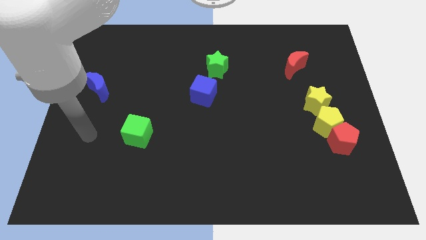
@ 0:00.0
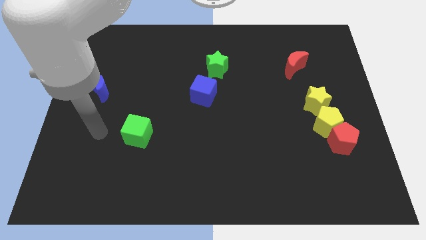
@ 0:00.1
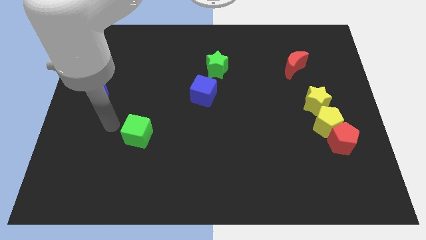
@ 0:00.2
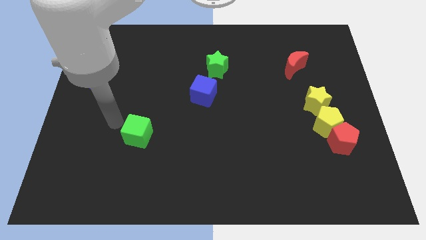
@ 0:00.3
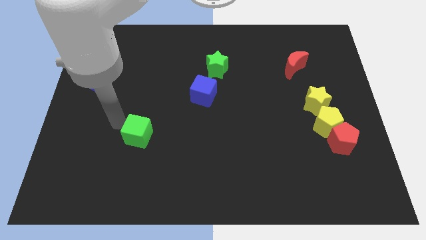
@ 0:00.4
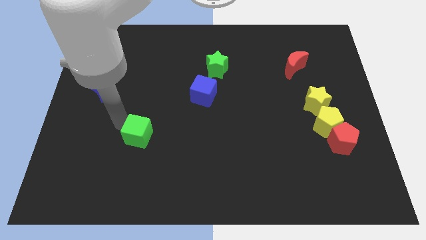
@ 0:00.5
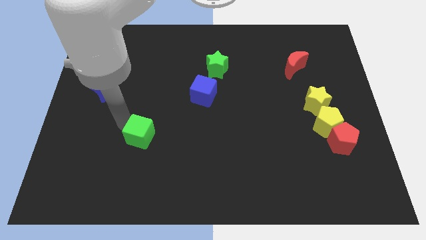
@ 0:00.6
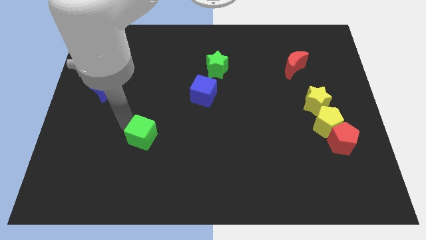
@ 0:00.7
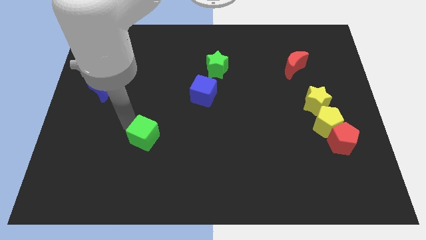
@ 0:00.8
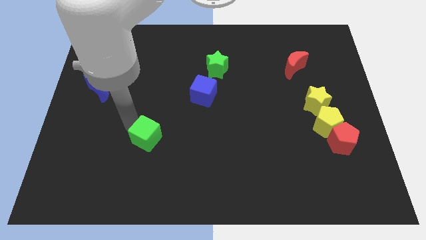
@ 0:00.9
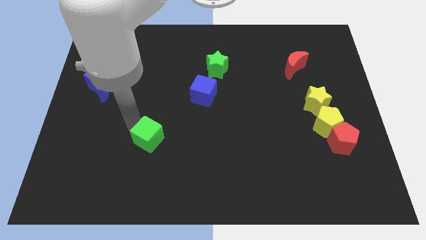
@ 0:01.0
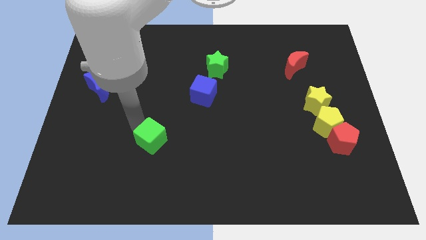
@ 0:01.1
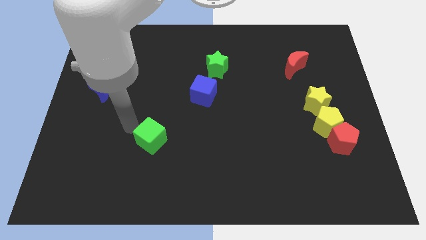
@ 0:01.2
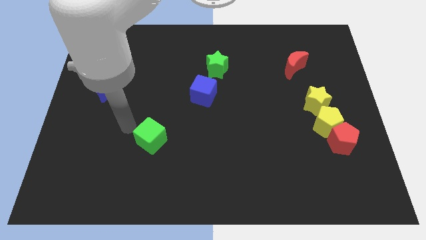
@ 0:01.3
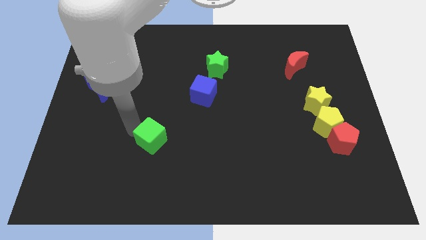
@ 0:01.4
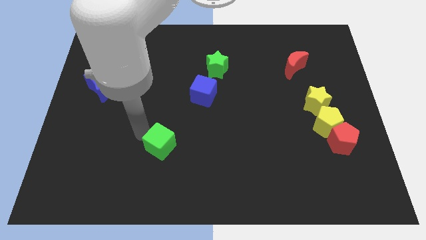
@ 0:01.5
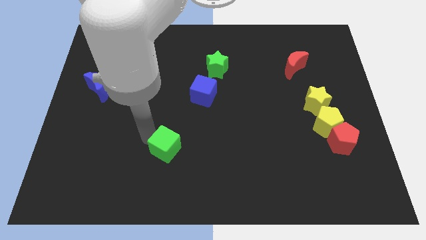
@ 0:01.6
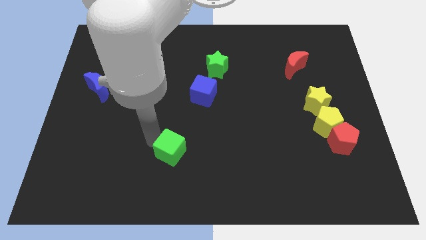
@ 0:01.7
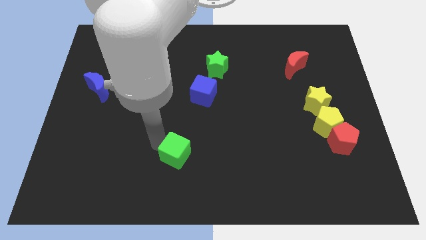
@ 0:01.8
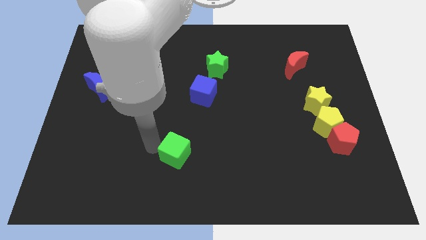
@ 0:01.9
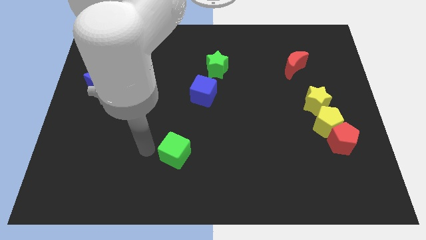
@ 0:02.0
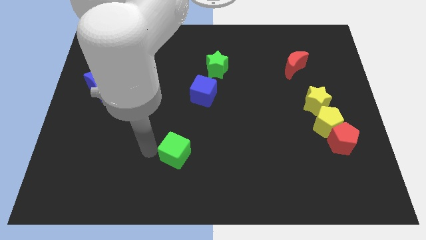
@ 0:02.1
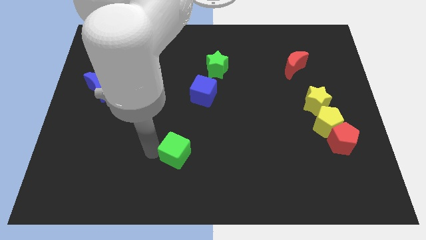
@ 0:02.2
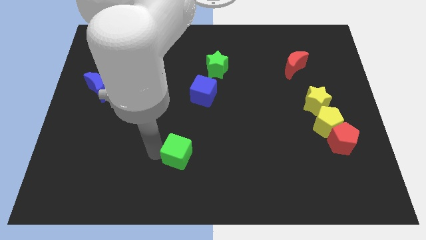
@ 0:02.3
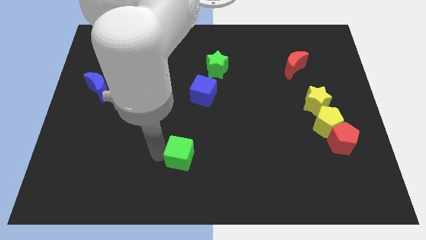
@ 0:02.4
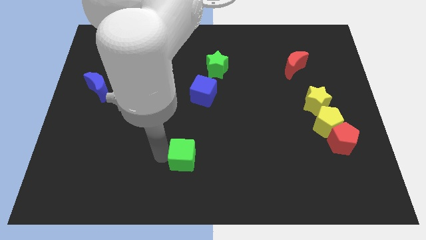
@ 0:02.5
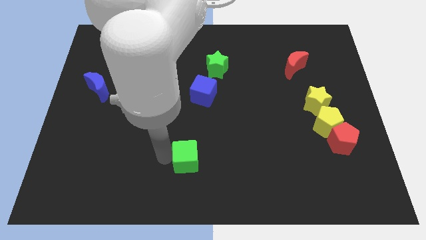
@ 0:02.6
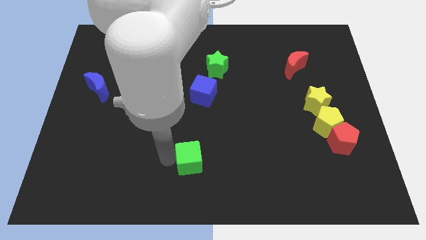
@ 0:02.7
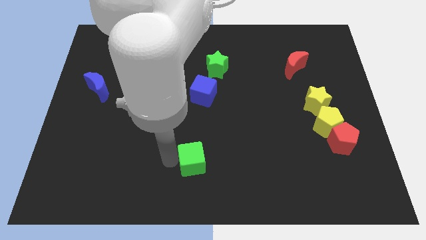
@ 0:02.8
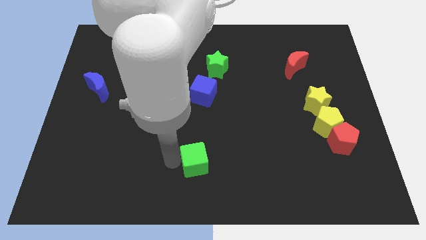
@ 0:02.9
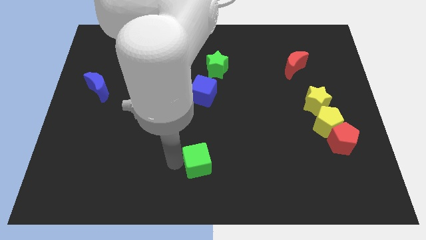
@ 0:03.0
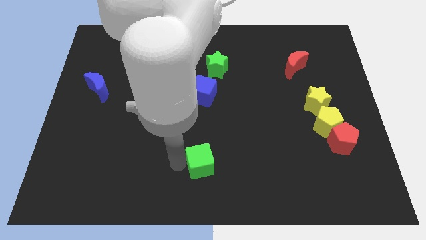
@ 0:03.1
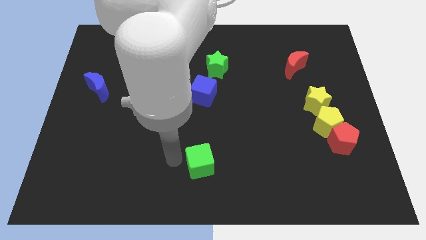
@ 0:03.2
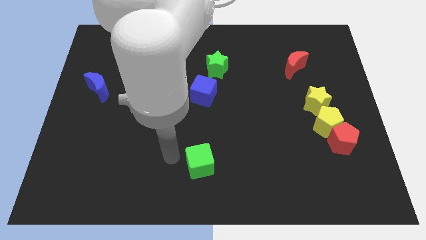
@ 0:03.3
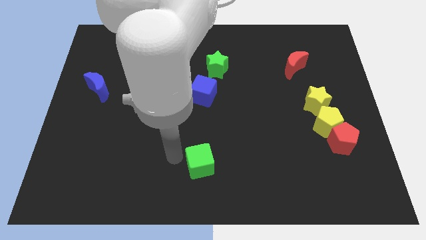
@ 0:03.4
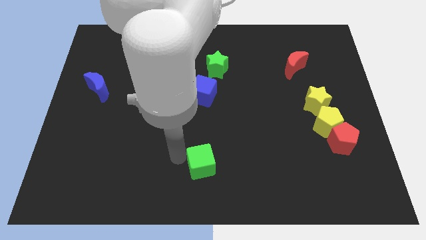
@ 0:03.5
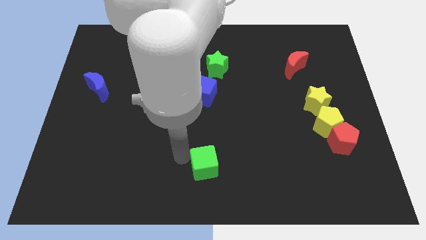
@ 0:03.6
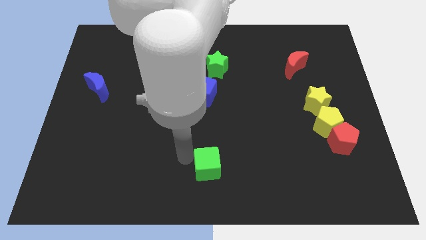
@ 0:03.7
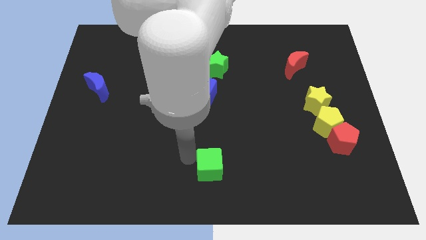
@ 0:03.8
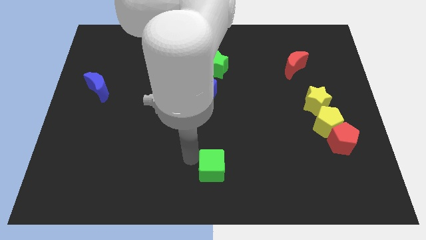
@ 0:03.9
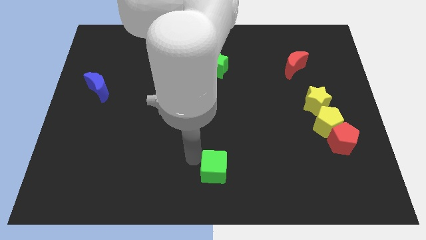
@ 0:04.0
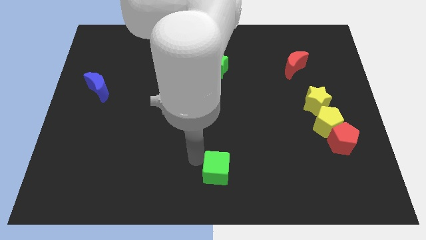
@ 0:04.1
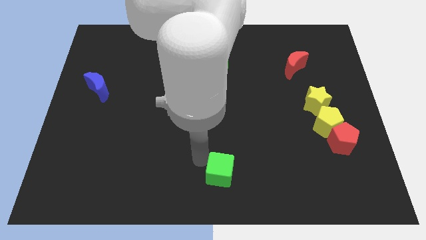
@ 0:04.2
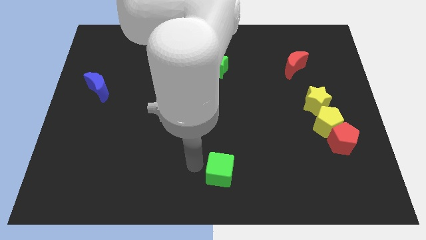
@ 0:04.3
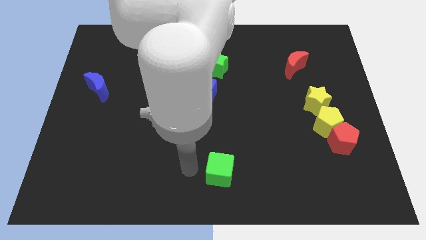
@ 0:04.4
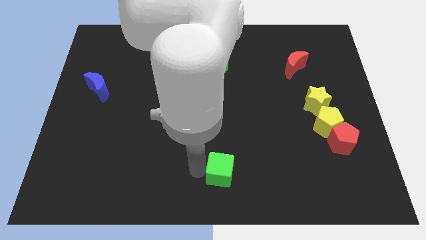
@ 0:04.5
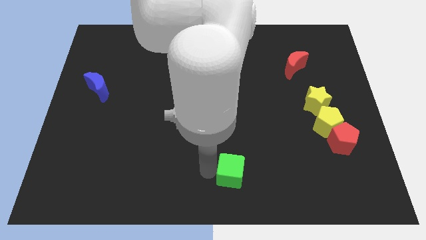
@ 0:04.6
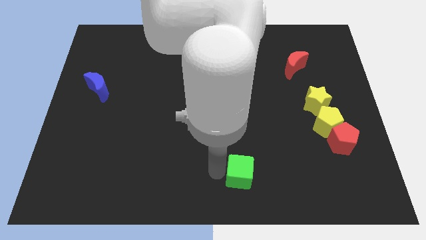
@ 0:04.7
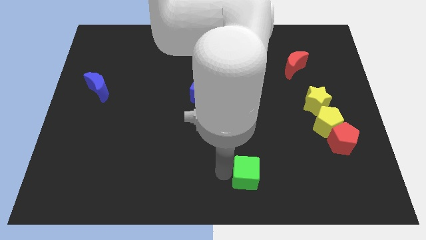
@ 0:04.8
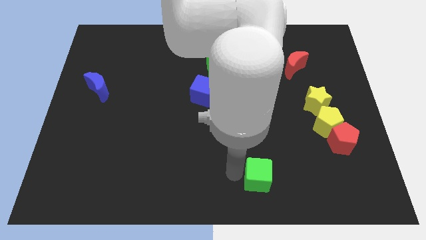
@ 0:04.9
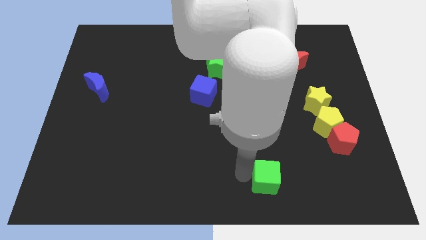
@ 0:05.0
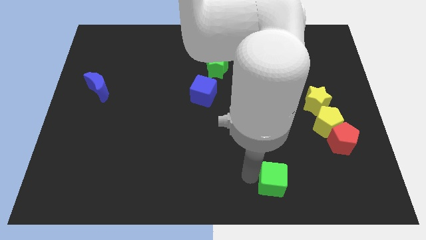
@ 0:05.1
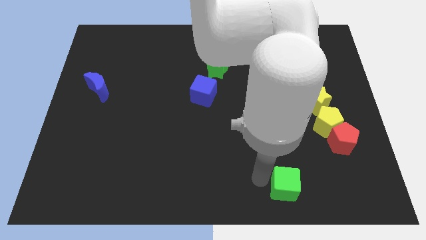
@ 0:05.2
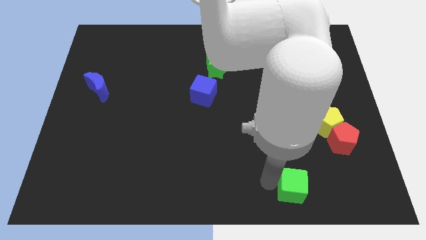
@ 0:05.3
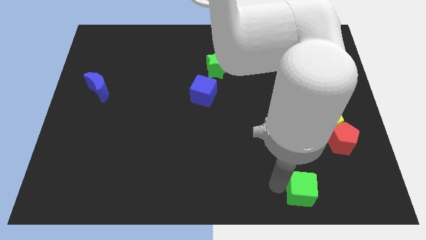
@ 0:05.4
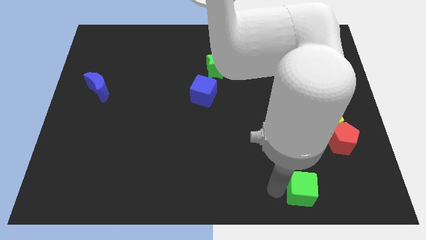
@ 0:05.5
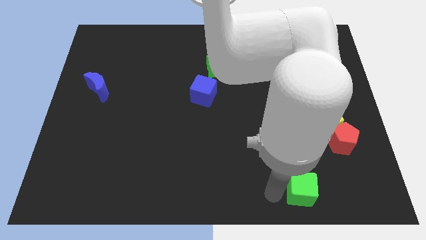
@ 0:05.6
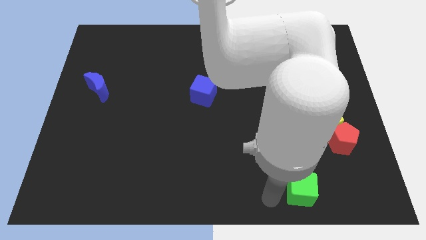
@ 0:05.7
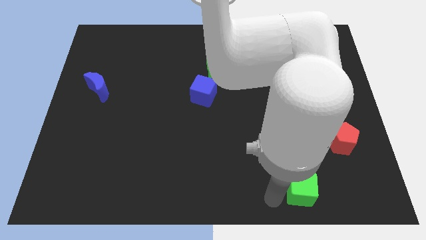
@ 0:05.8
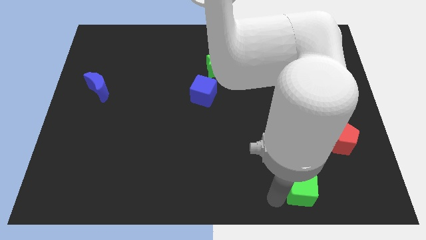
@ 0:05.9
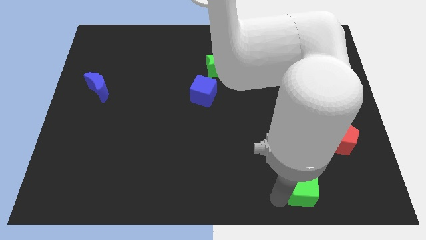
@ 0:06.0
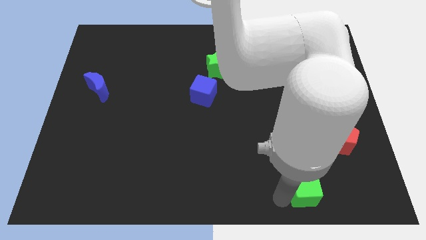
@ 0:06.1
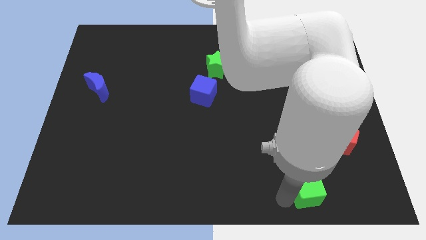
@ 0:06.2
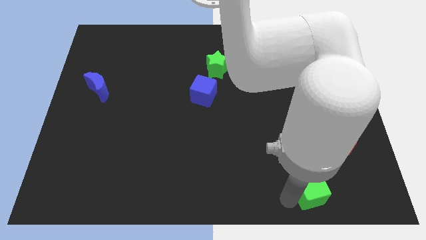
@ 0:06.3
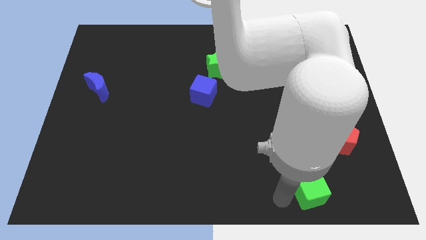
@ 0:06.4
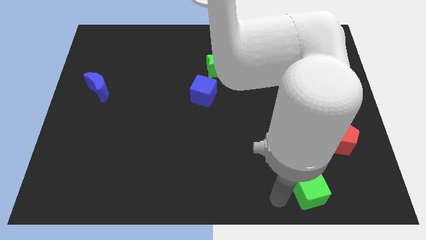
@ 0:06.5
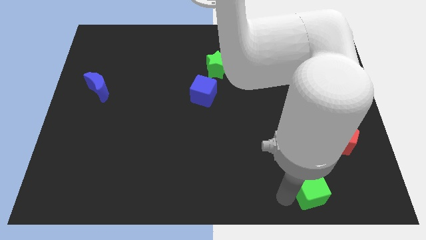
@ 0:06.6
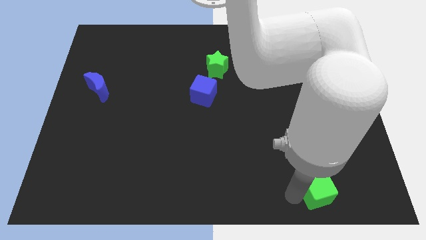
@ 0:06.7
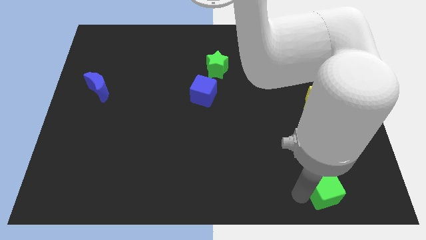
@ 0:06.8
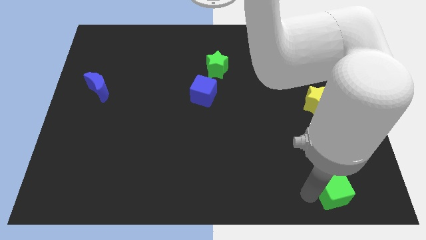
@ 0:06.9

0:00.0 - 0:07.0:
put the green cube below the red pentagon
